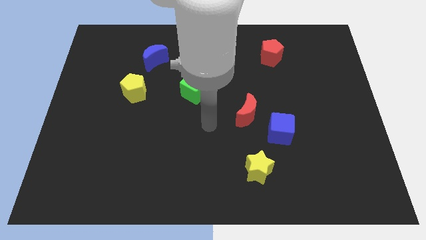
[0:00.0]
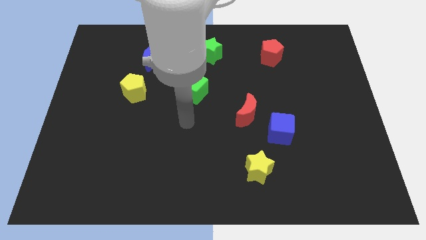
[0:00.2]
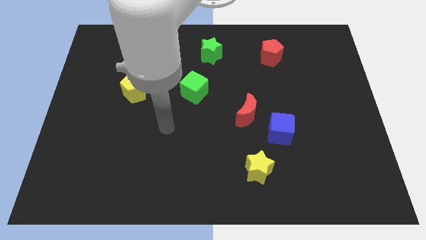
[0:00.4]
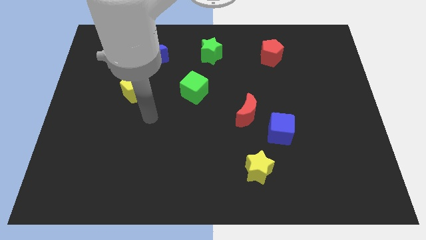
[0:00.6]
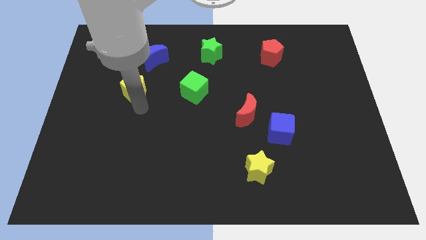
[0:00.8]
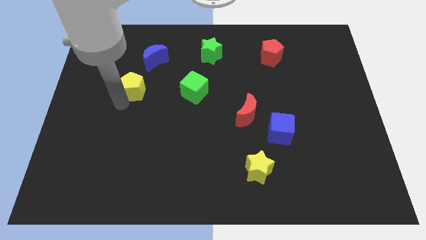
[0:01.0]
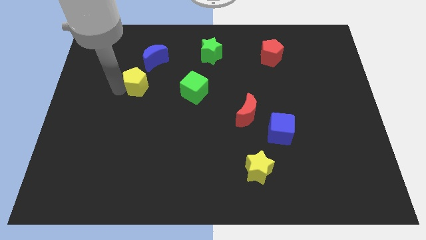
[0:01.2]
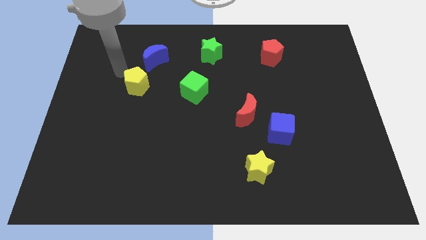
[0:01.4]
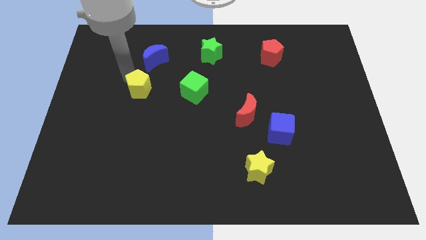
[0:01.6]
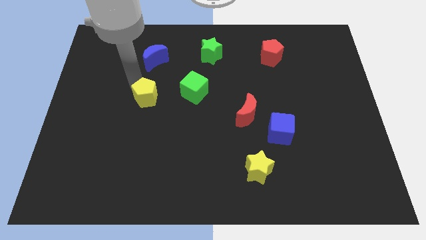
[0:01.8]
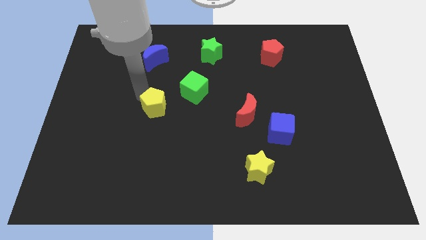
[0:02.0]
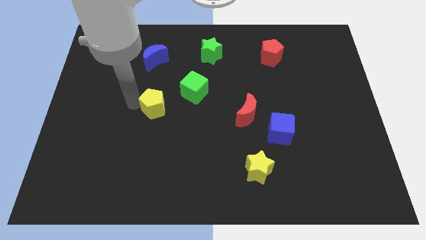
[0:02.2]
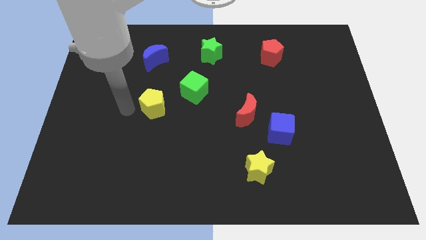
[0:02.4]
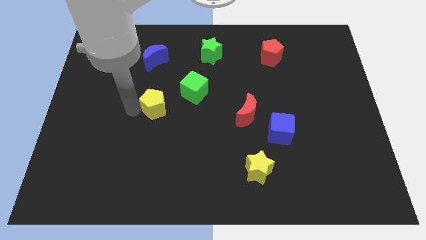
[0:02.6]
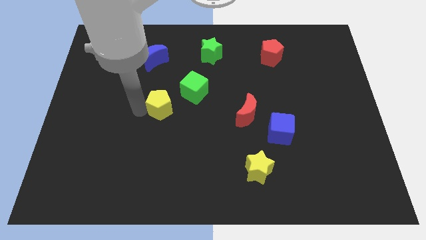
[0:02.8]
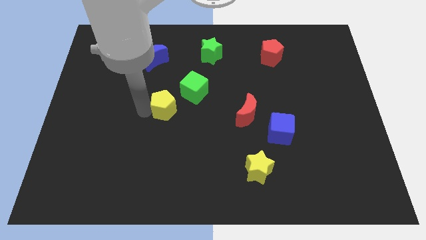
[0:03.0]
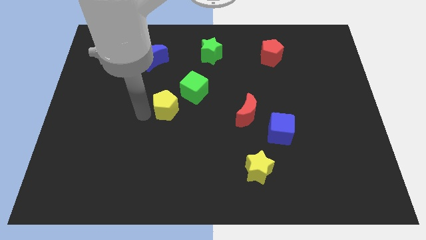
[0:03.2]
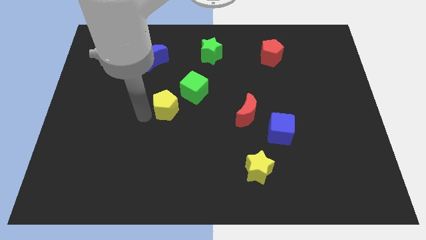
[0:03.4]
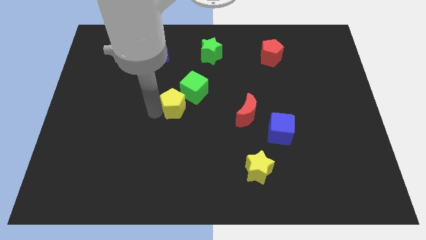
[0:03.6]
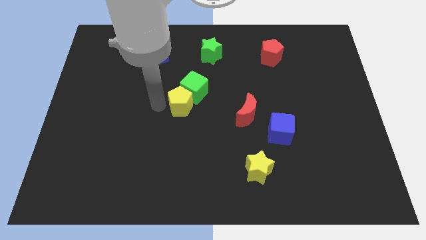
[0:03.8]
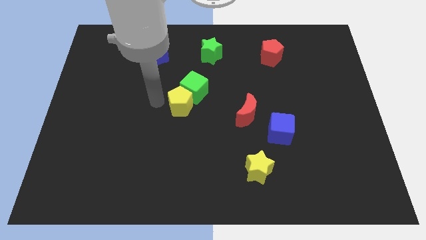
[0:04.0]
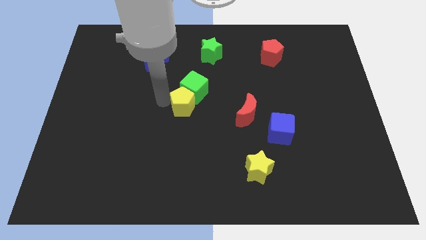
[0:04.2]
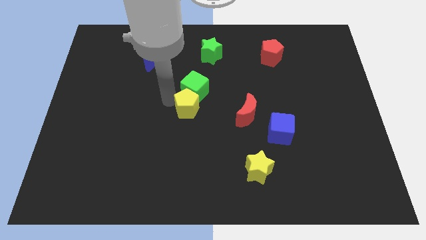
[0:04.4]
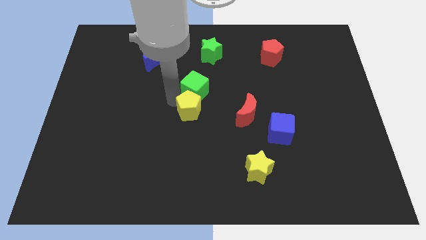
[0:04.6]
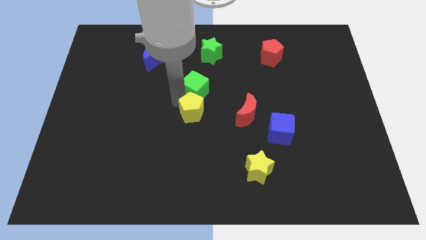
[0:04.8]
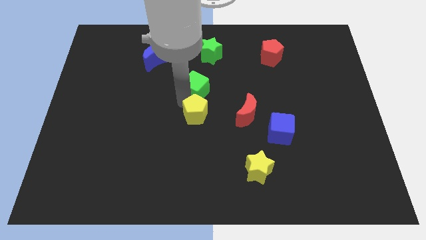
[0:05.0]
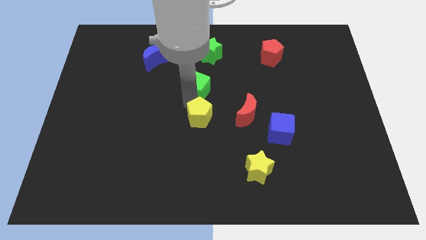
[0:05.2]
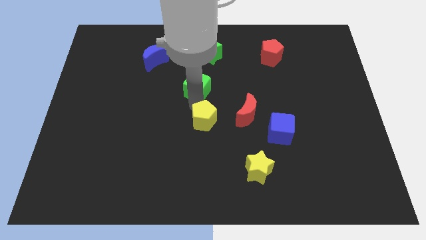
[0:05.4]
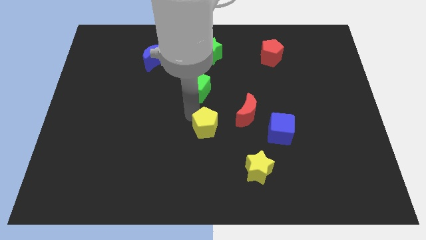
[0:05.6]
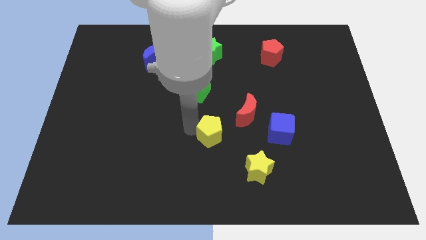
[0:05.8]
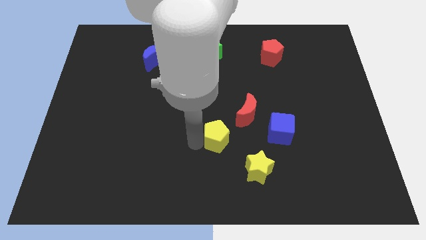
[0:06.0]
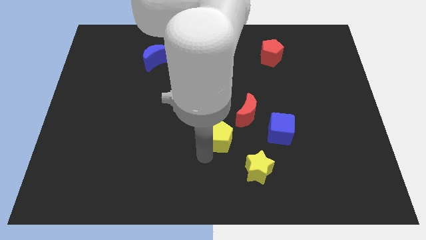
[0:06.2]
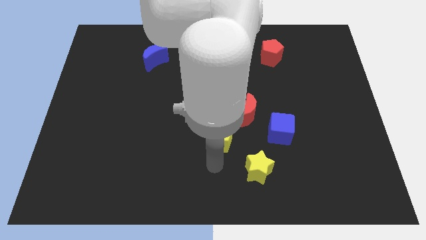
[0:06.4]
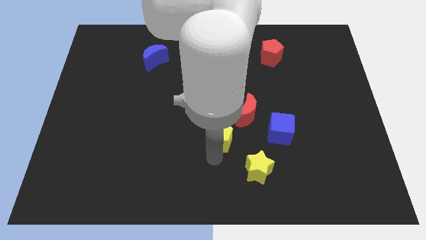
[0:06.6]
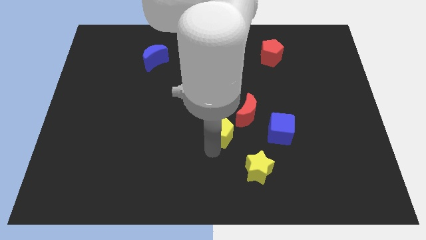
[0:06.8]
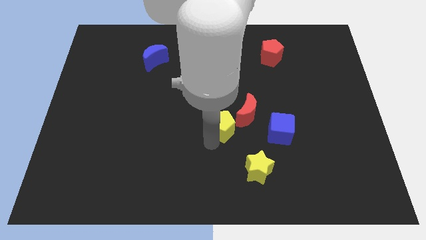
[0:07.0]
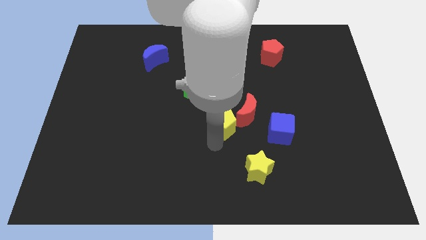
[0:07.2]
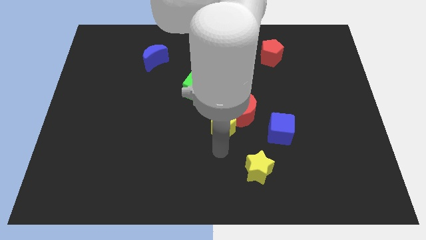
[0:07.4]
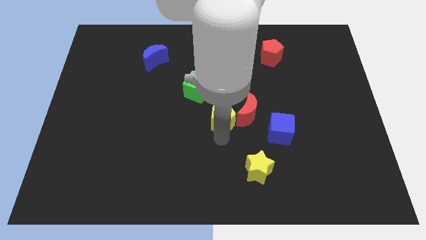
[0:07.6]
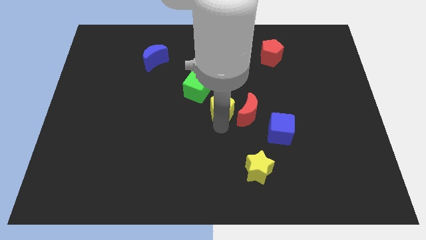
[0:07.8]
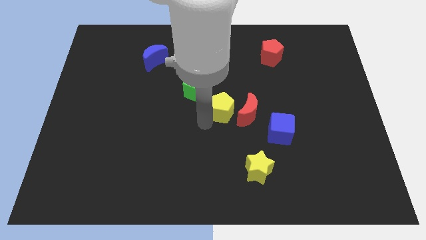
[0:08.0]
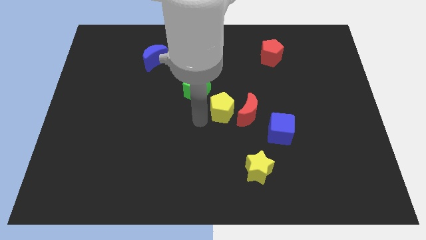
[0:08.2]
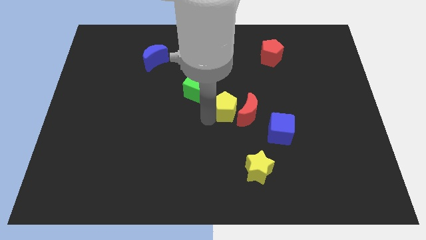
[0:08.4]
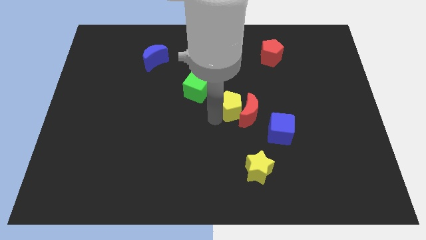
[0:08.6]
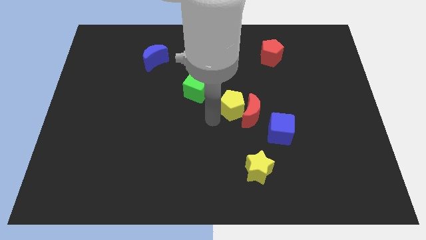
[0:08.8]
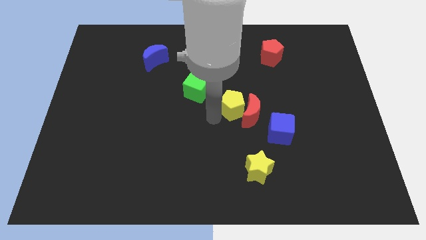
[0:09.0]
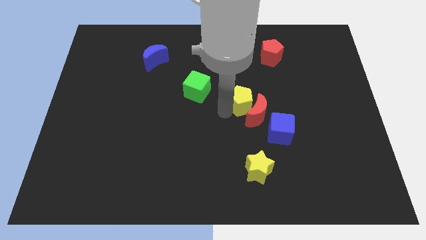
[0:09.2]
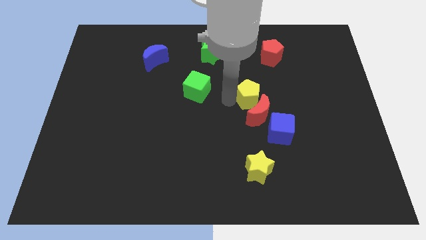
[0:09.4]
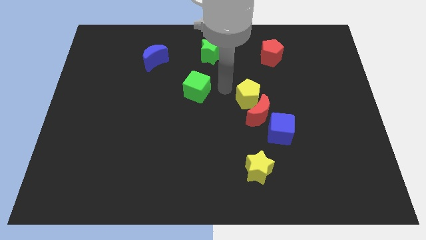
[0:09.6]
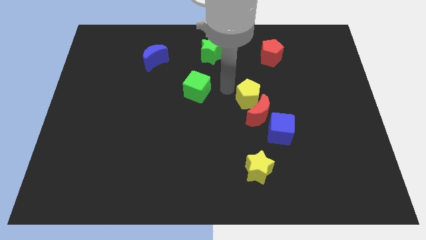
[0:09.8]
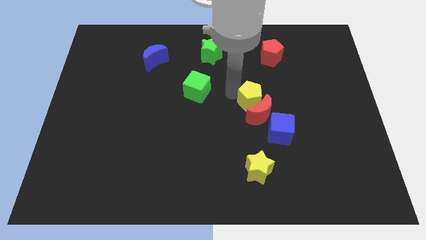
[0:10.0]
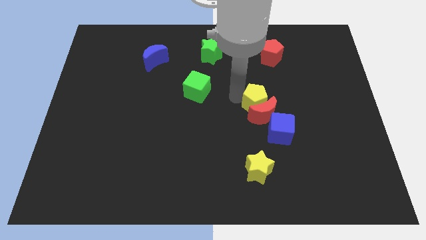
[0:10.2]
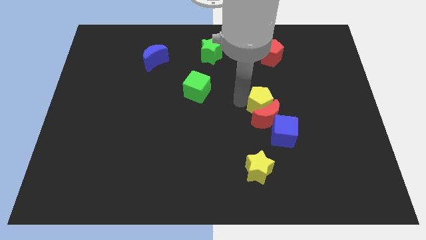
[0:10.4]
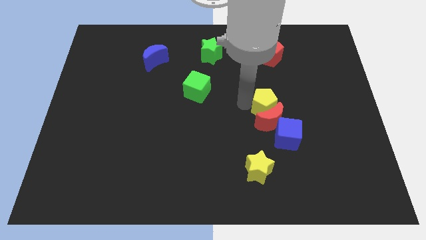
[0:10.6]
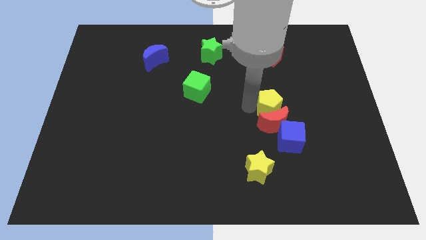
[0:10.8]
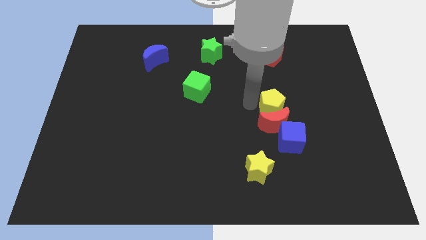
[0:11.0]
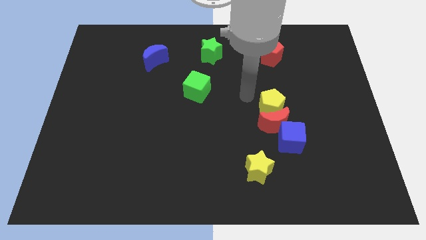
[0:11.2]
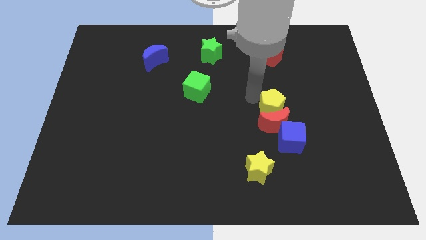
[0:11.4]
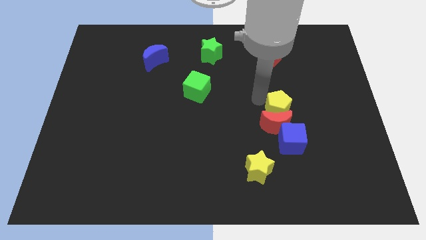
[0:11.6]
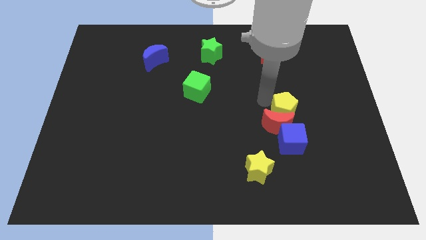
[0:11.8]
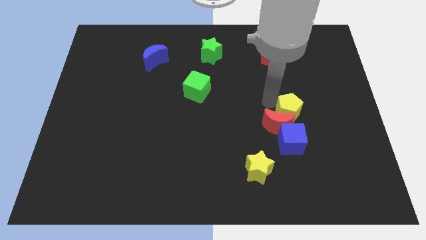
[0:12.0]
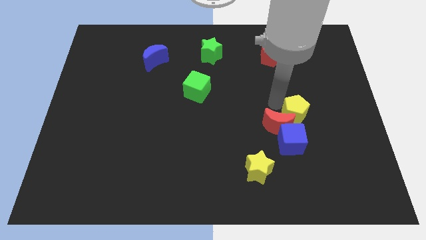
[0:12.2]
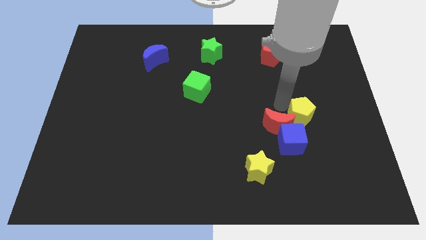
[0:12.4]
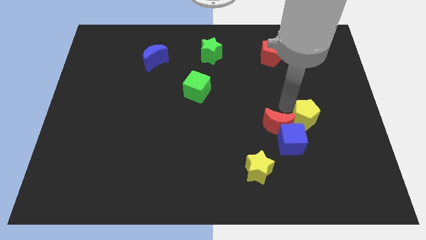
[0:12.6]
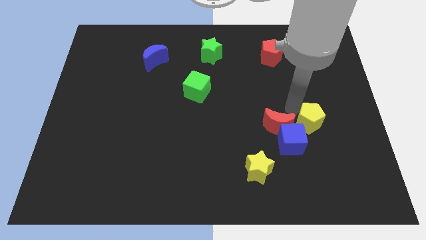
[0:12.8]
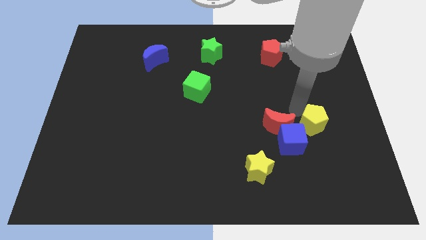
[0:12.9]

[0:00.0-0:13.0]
slide the yellow pentagon to the right of the blue cube

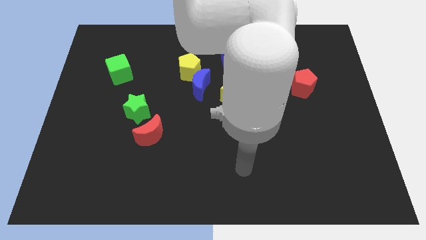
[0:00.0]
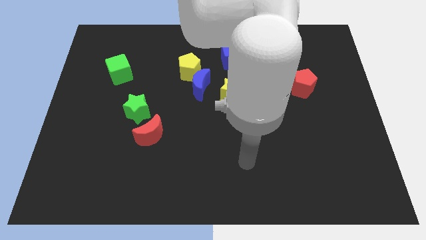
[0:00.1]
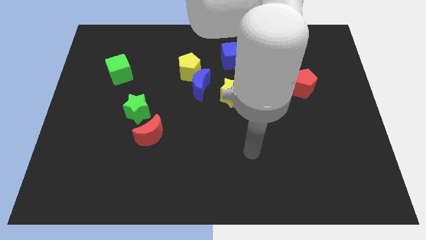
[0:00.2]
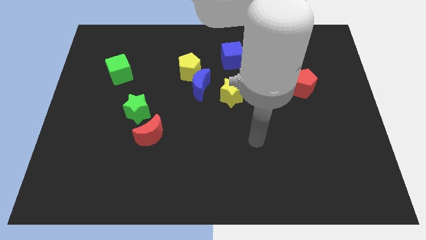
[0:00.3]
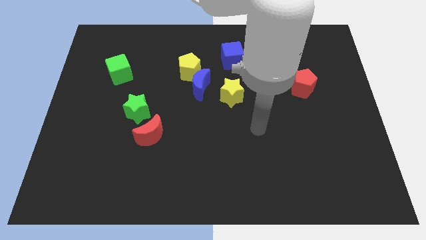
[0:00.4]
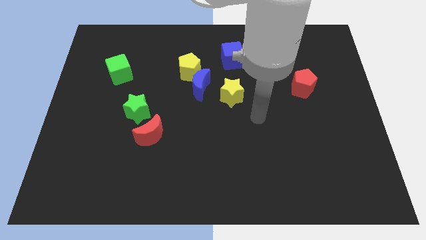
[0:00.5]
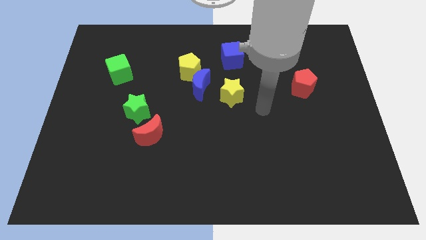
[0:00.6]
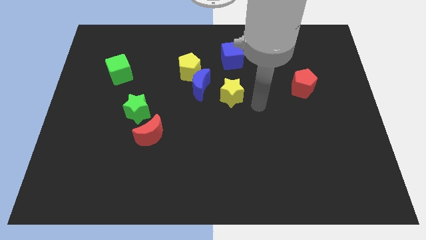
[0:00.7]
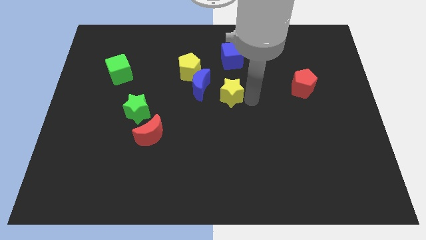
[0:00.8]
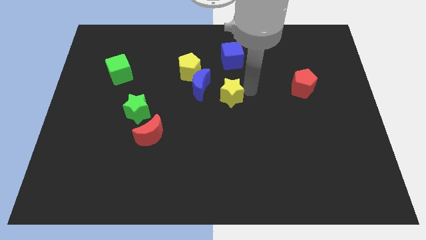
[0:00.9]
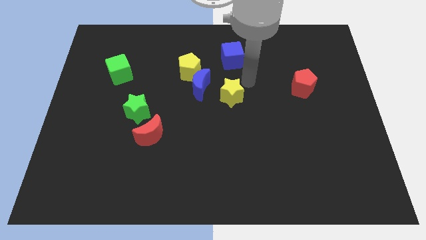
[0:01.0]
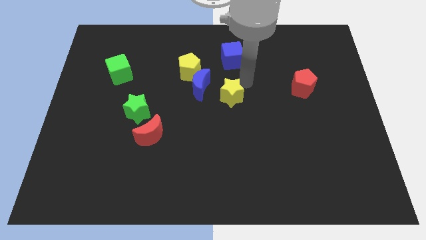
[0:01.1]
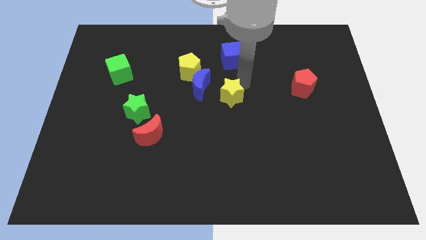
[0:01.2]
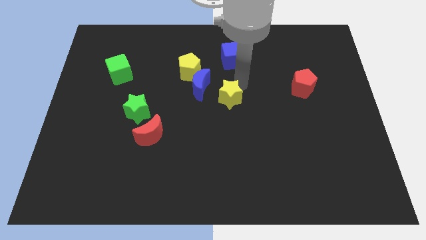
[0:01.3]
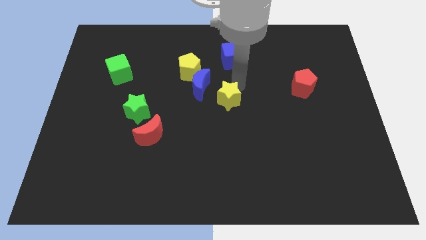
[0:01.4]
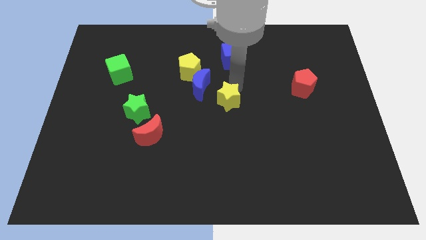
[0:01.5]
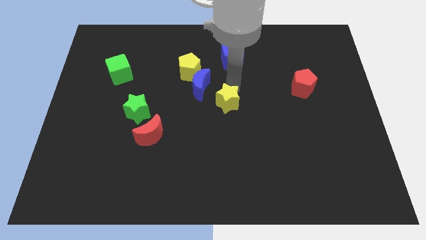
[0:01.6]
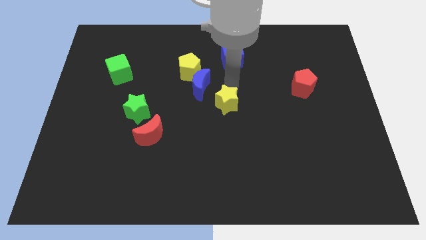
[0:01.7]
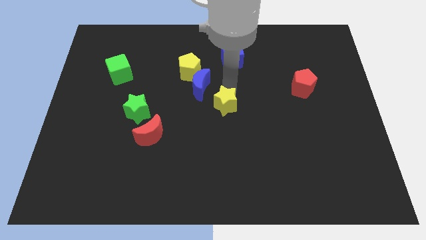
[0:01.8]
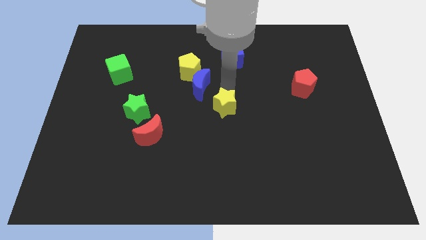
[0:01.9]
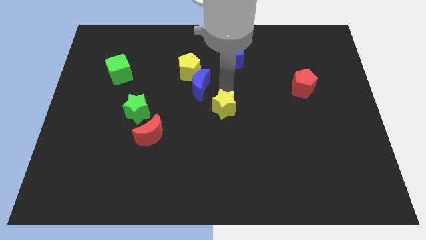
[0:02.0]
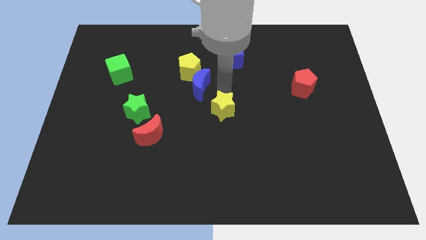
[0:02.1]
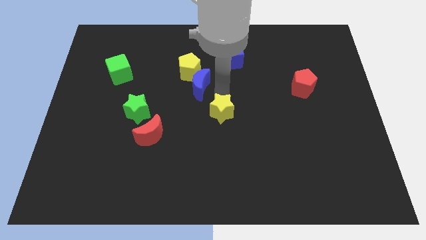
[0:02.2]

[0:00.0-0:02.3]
move the yellow star to the bottom side of the blue moon
